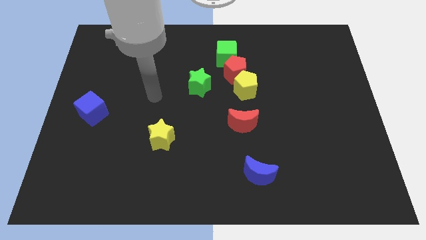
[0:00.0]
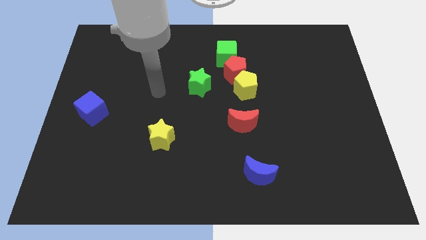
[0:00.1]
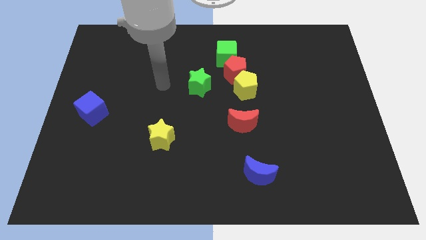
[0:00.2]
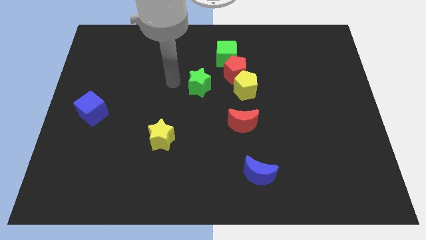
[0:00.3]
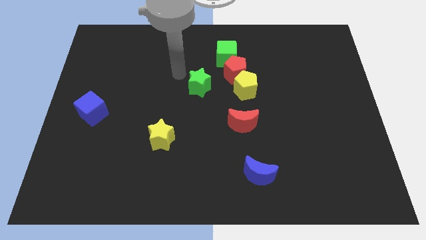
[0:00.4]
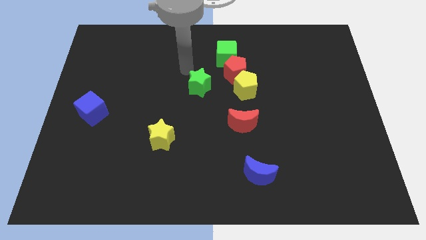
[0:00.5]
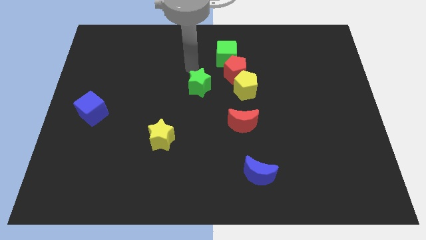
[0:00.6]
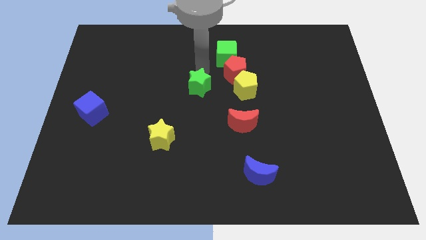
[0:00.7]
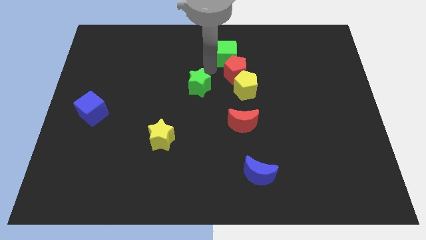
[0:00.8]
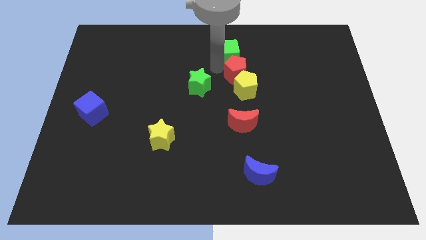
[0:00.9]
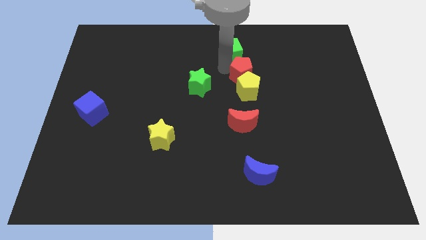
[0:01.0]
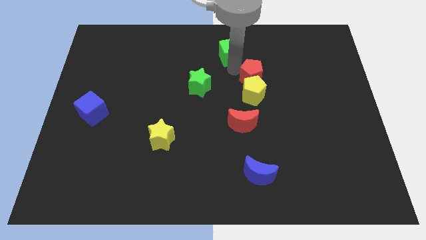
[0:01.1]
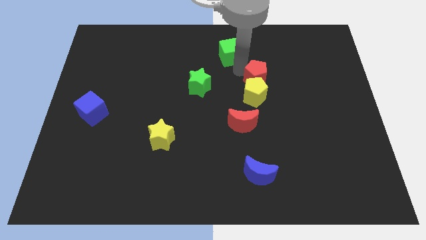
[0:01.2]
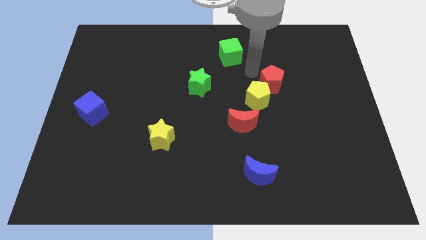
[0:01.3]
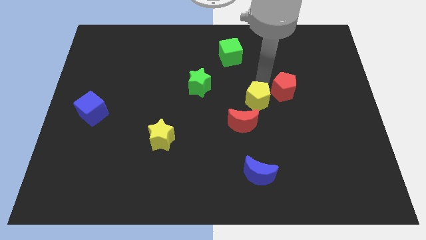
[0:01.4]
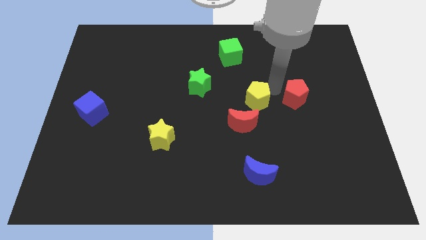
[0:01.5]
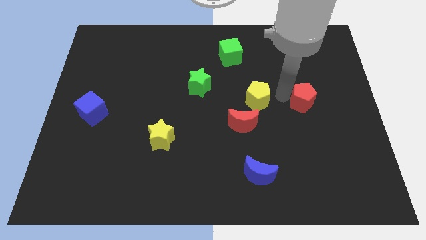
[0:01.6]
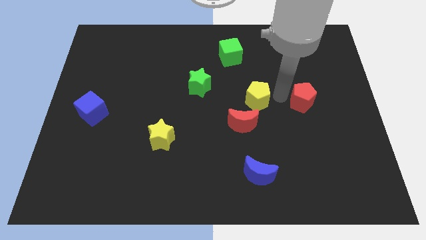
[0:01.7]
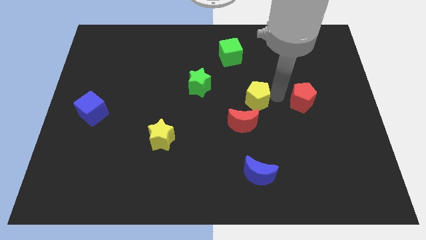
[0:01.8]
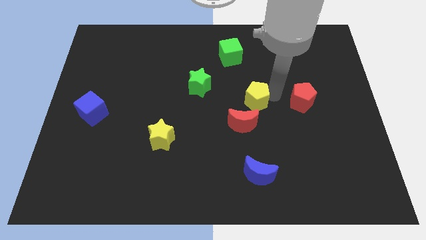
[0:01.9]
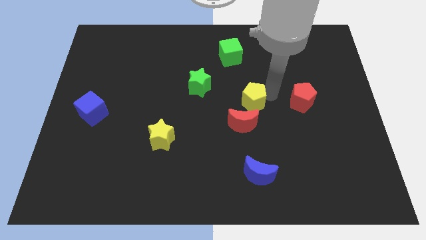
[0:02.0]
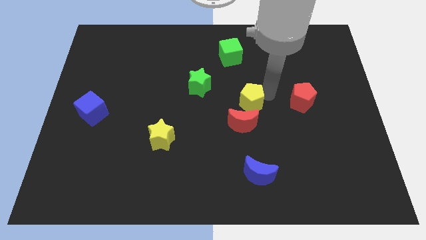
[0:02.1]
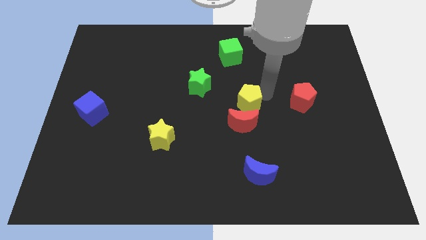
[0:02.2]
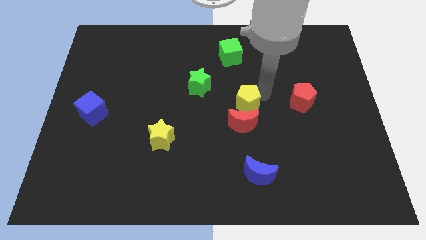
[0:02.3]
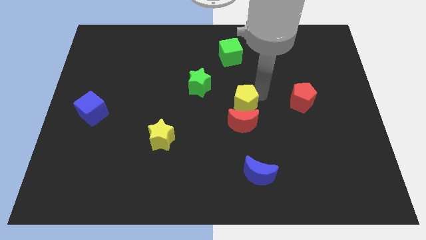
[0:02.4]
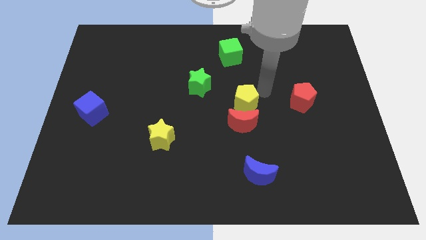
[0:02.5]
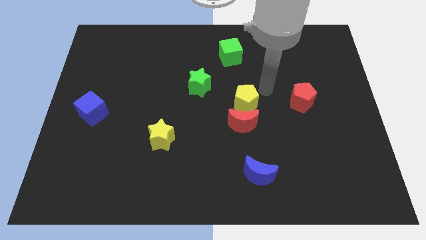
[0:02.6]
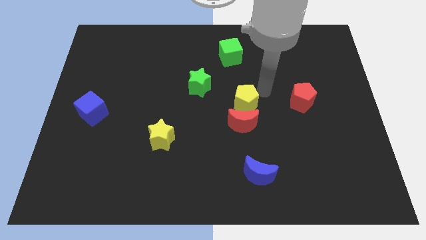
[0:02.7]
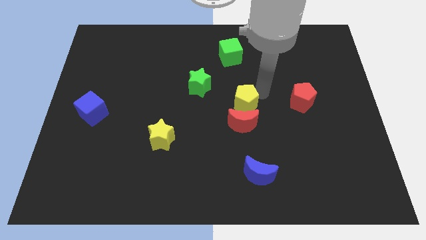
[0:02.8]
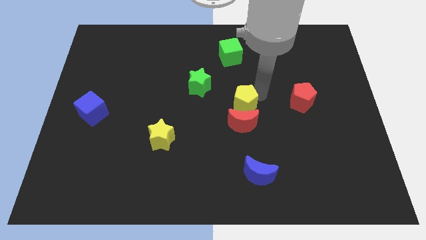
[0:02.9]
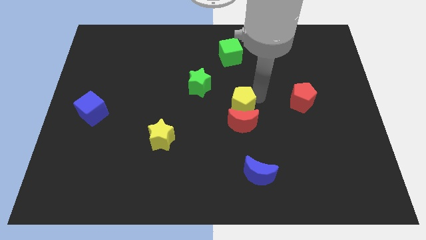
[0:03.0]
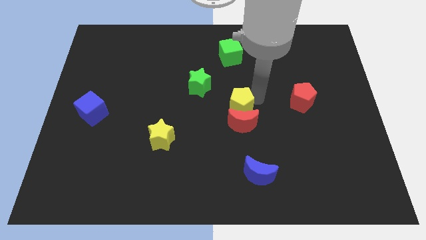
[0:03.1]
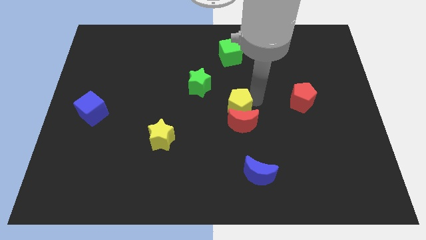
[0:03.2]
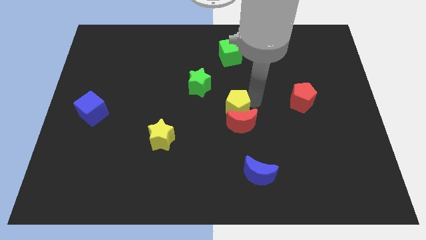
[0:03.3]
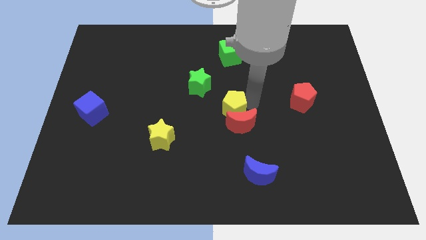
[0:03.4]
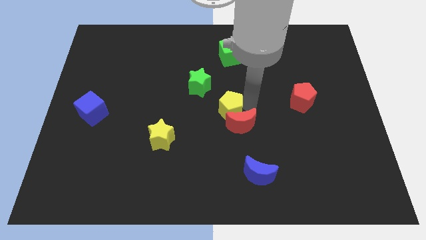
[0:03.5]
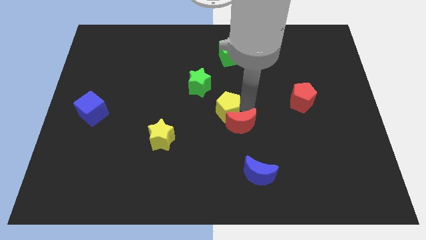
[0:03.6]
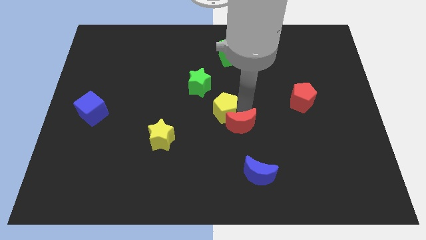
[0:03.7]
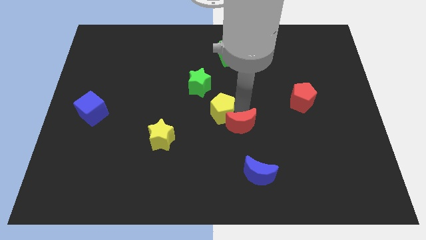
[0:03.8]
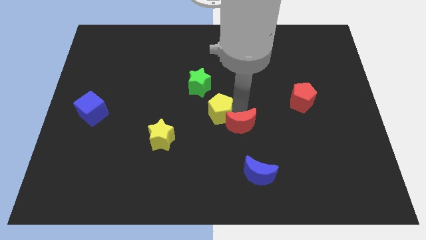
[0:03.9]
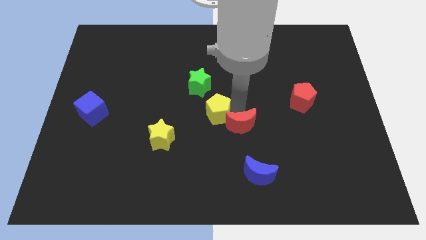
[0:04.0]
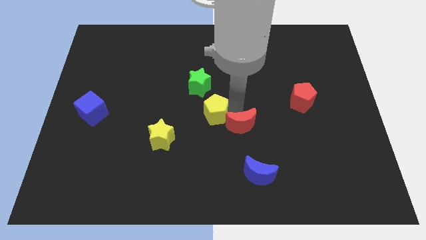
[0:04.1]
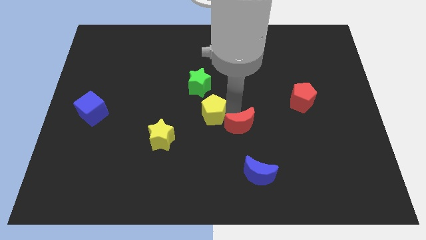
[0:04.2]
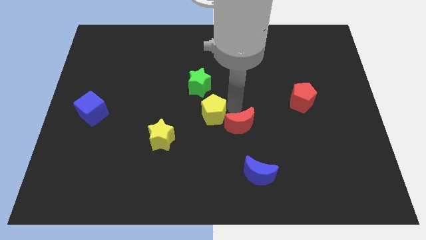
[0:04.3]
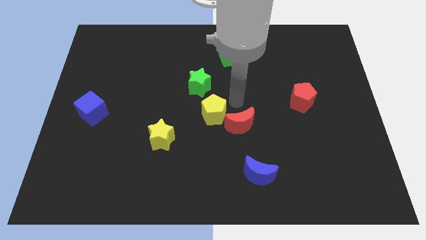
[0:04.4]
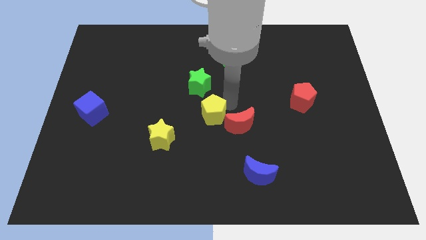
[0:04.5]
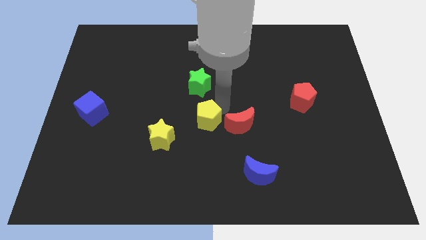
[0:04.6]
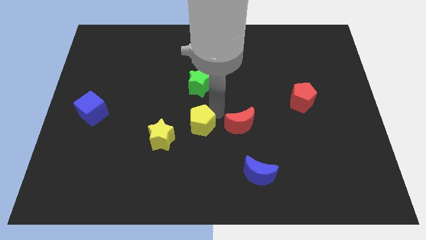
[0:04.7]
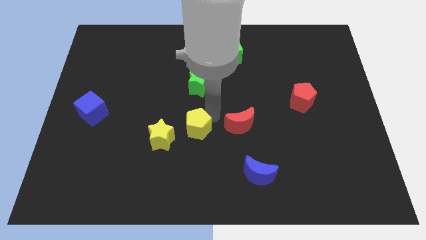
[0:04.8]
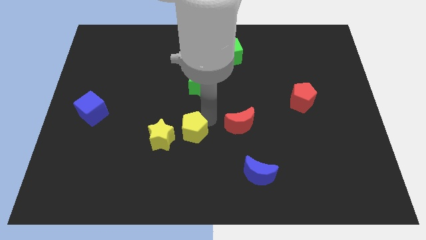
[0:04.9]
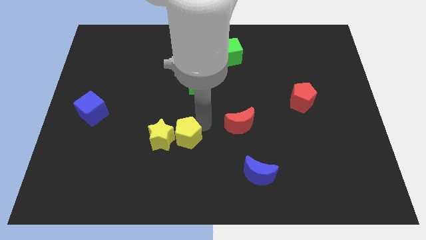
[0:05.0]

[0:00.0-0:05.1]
push the yellow pentagon towards the yellow star

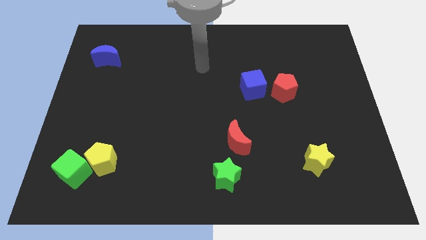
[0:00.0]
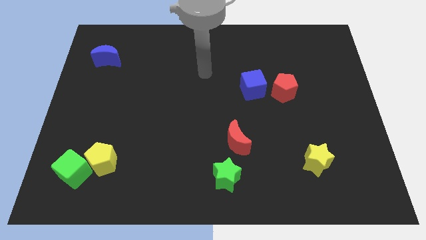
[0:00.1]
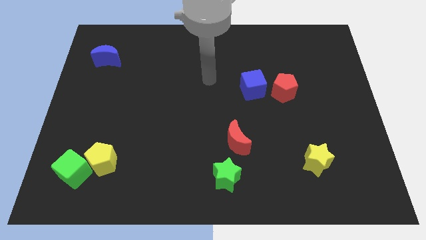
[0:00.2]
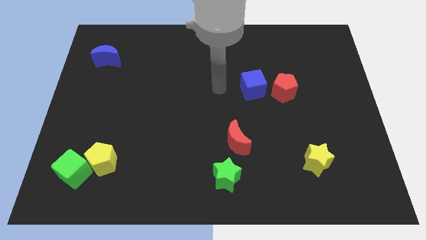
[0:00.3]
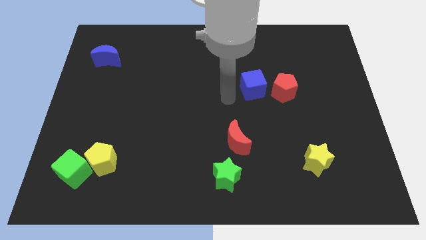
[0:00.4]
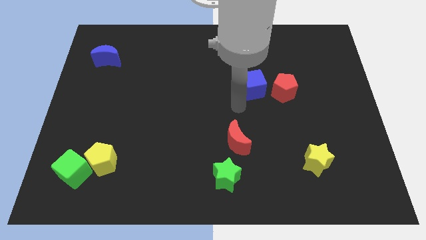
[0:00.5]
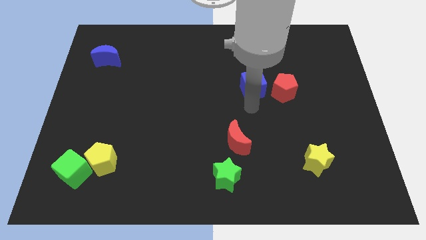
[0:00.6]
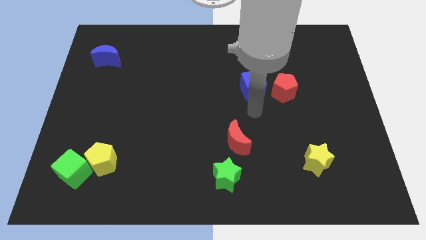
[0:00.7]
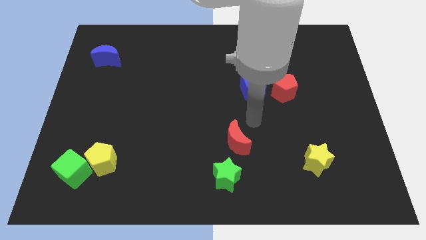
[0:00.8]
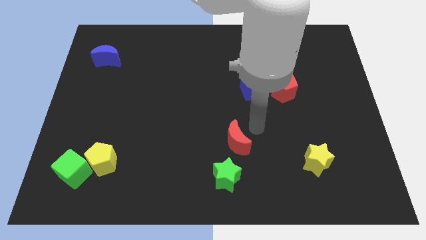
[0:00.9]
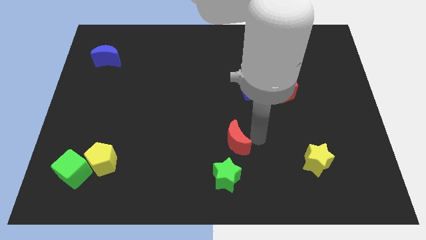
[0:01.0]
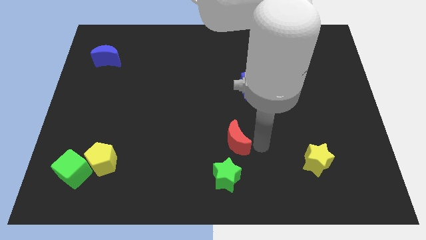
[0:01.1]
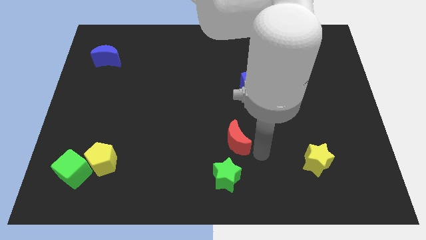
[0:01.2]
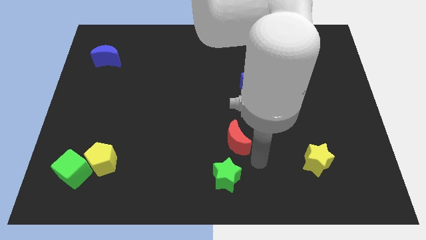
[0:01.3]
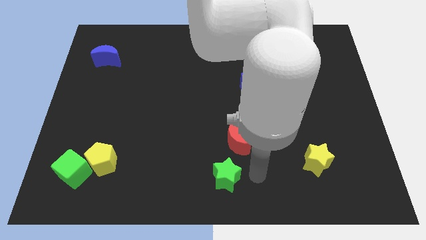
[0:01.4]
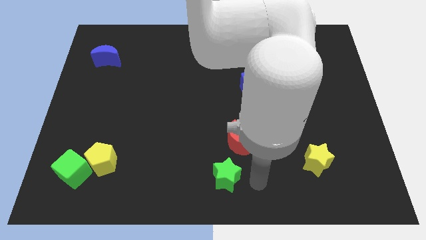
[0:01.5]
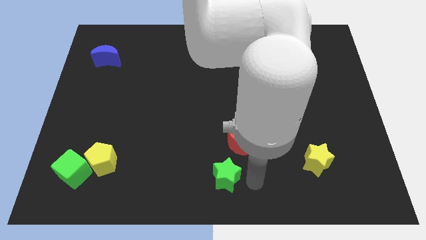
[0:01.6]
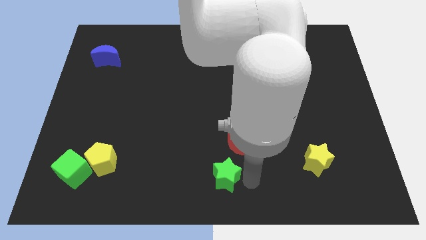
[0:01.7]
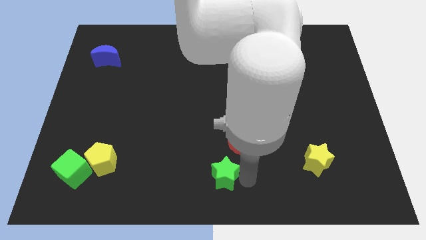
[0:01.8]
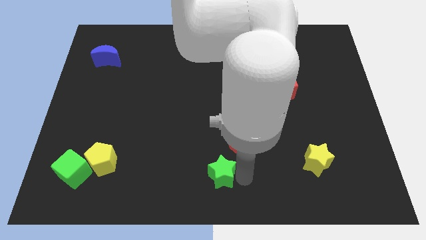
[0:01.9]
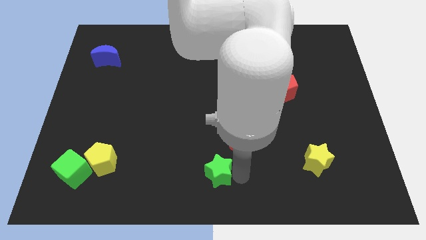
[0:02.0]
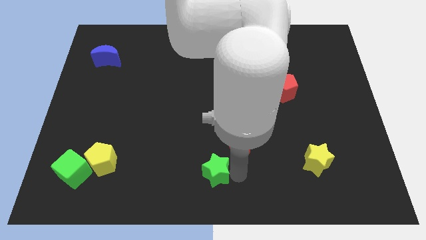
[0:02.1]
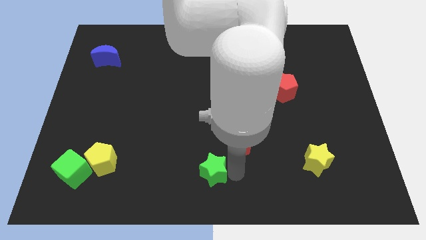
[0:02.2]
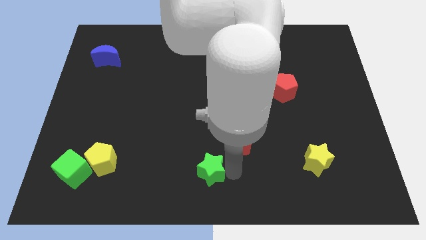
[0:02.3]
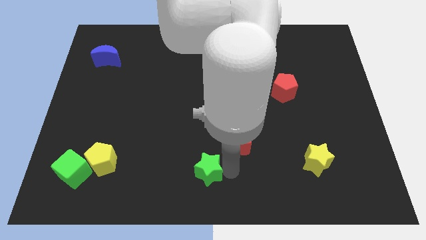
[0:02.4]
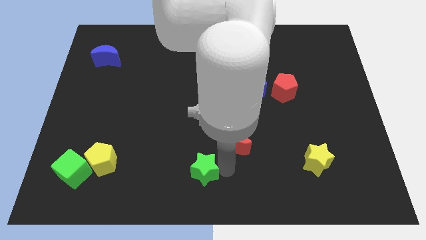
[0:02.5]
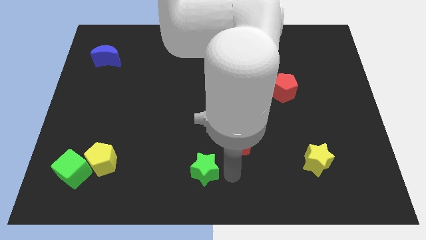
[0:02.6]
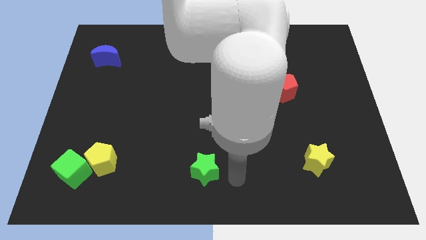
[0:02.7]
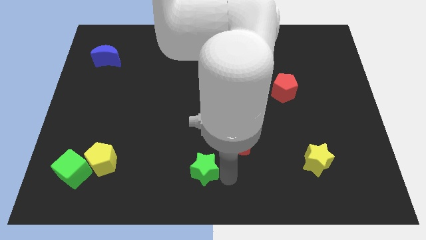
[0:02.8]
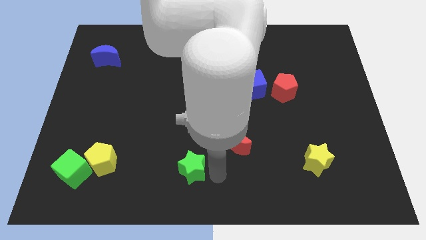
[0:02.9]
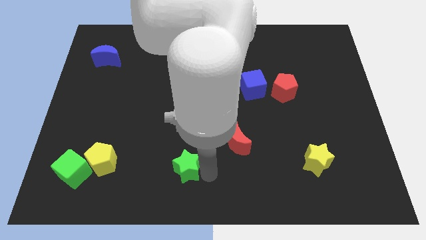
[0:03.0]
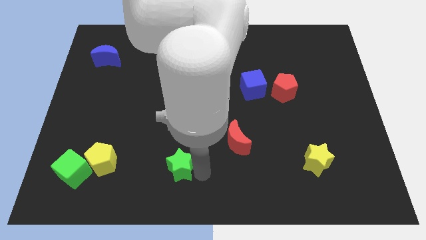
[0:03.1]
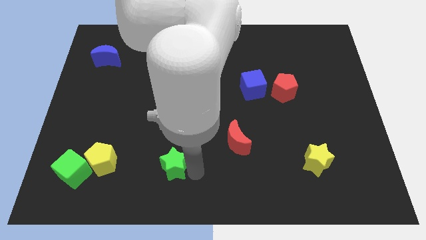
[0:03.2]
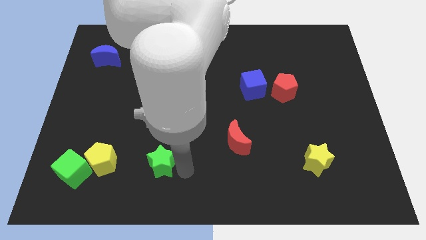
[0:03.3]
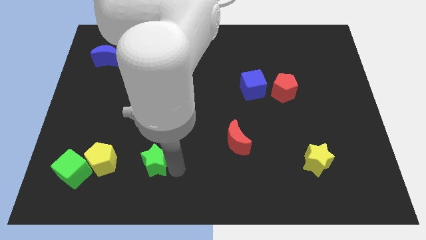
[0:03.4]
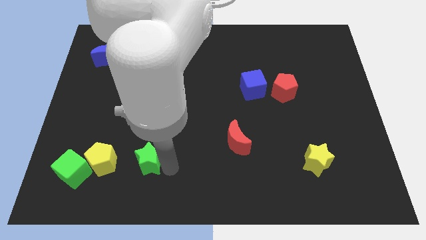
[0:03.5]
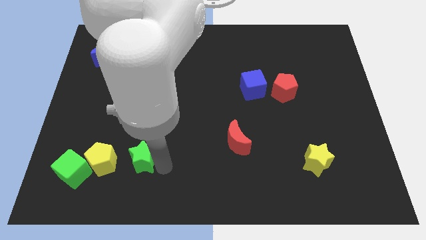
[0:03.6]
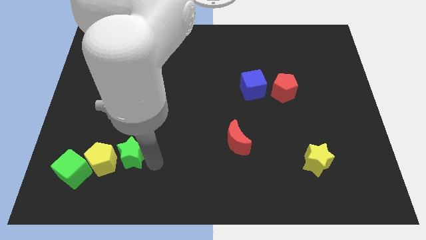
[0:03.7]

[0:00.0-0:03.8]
put the green star to the yellow pentagon
